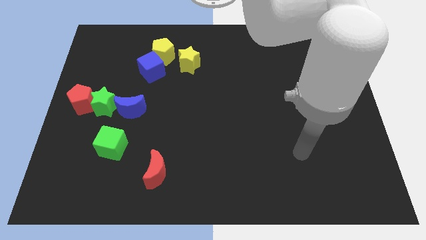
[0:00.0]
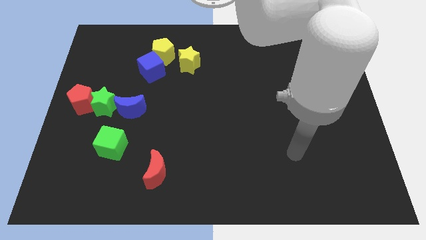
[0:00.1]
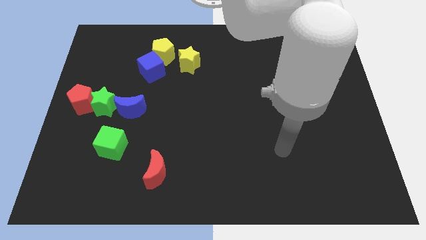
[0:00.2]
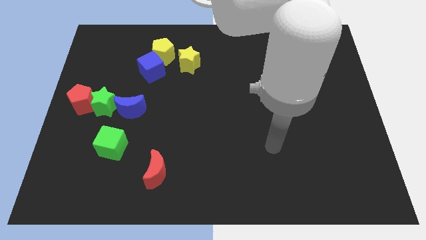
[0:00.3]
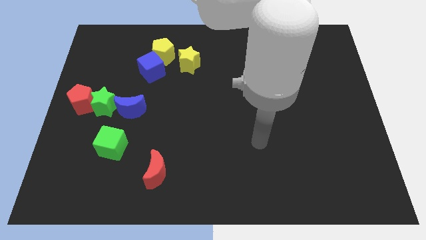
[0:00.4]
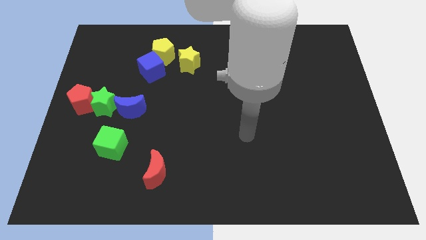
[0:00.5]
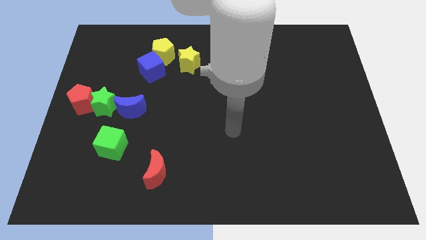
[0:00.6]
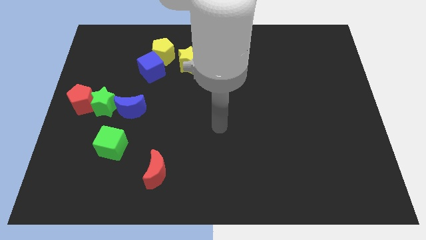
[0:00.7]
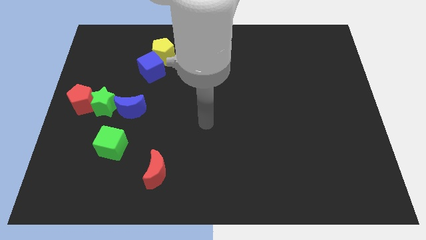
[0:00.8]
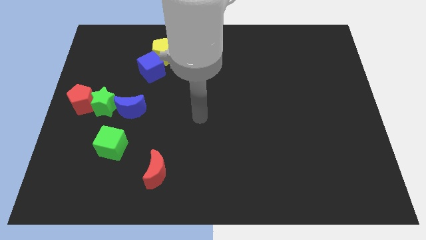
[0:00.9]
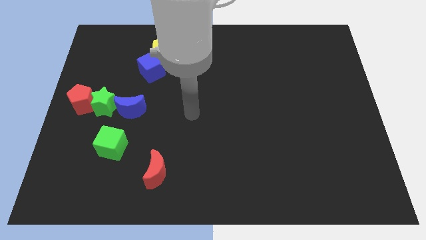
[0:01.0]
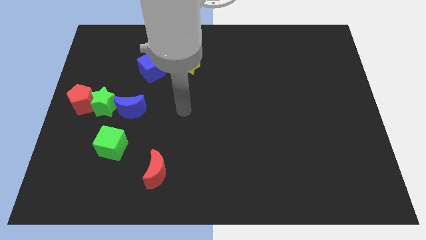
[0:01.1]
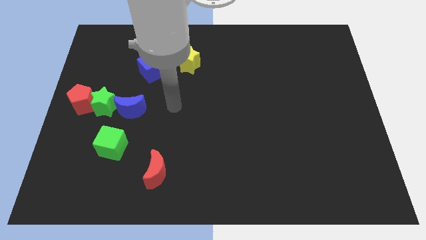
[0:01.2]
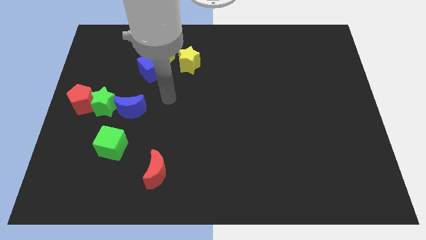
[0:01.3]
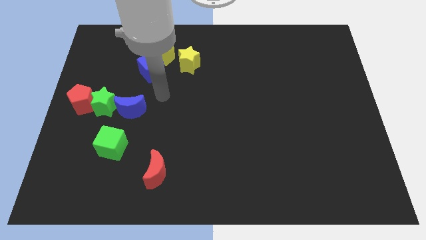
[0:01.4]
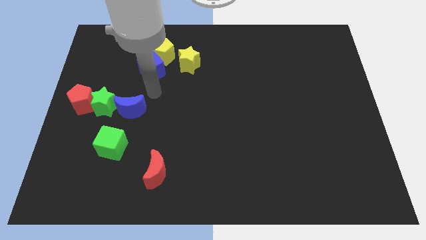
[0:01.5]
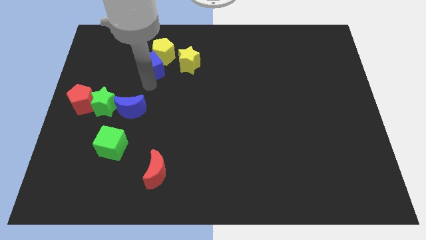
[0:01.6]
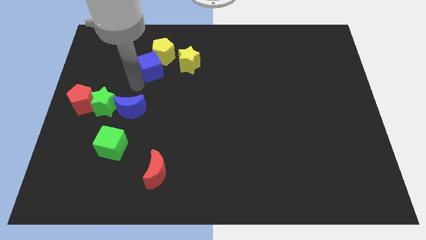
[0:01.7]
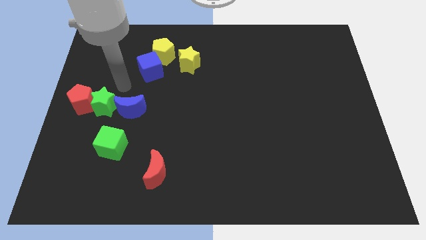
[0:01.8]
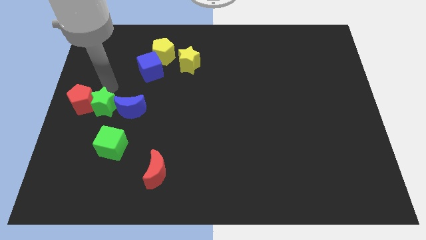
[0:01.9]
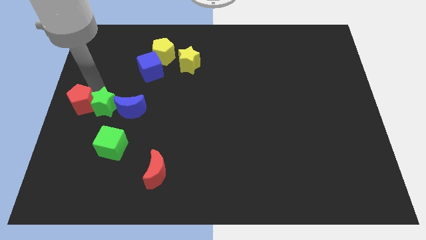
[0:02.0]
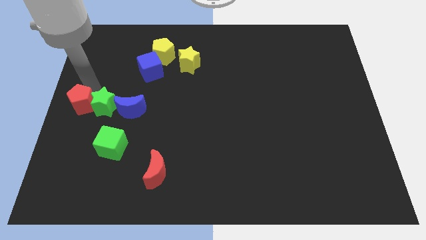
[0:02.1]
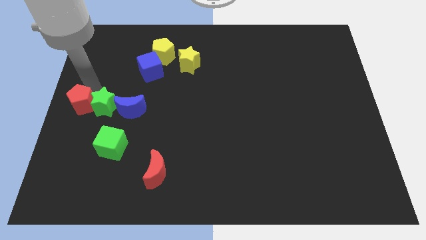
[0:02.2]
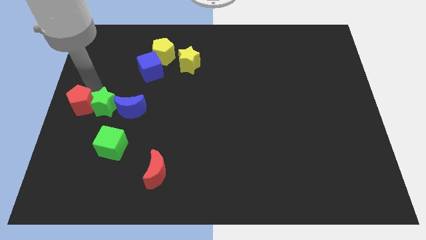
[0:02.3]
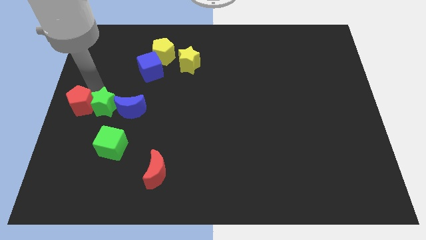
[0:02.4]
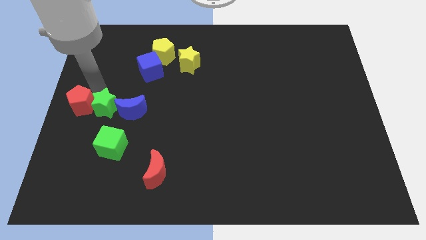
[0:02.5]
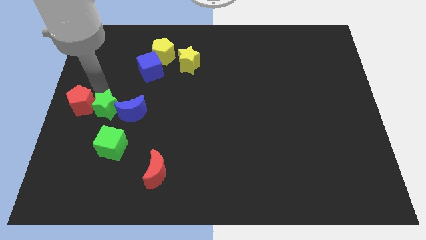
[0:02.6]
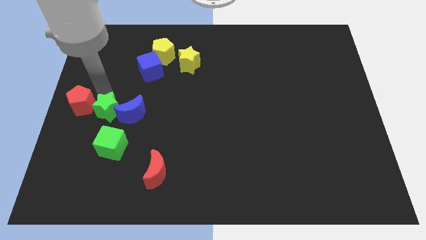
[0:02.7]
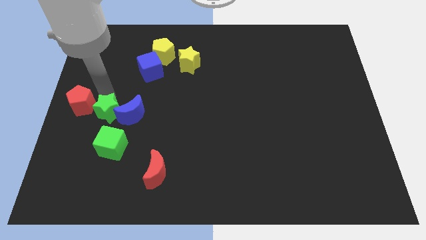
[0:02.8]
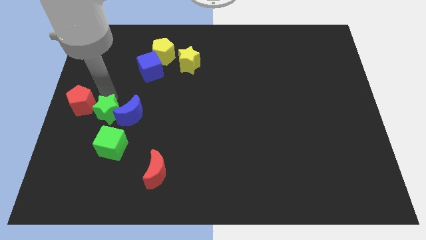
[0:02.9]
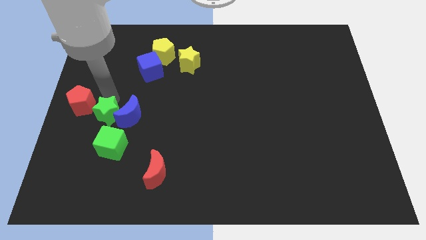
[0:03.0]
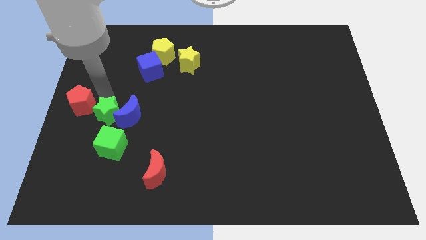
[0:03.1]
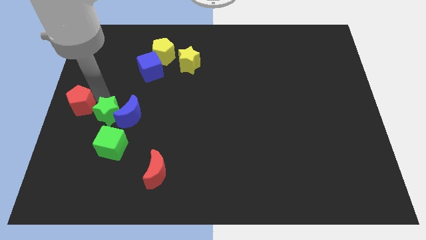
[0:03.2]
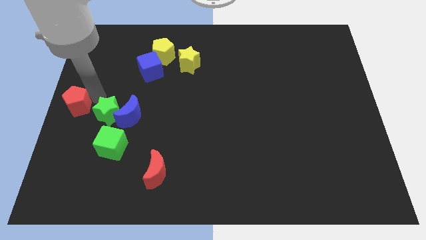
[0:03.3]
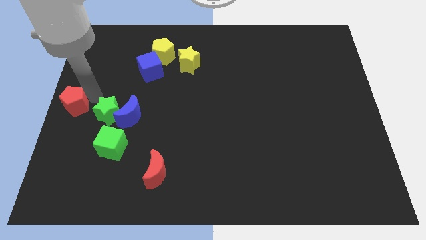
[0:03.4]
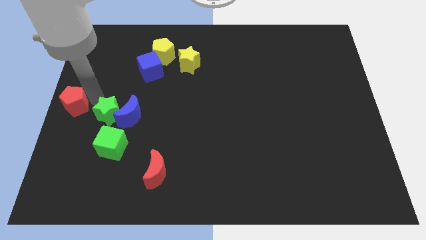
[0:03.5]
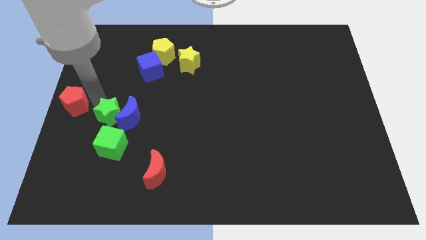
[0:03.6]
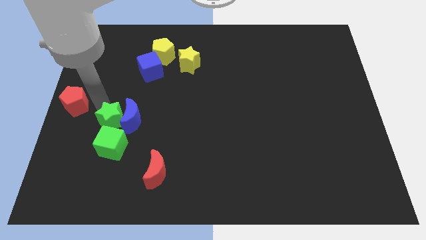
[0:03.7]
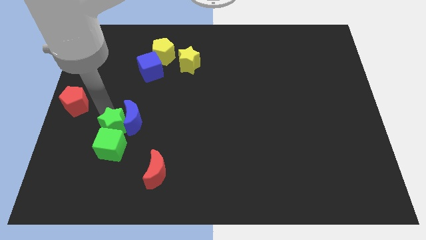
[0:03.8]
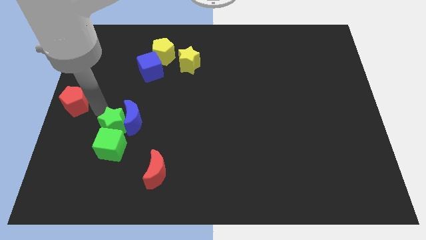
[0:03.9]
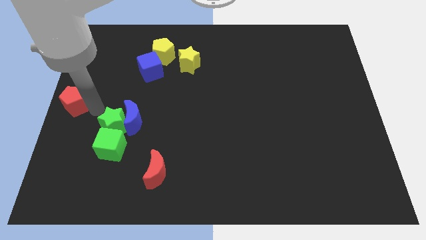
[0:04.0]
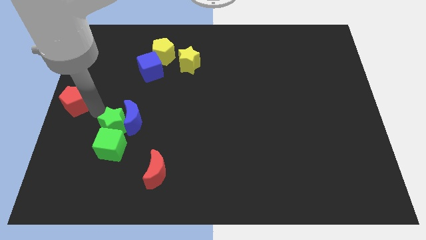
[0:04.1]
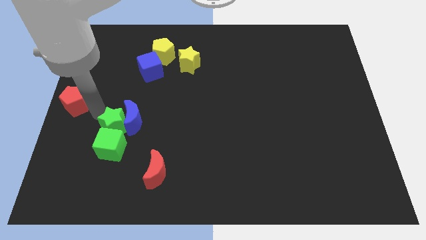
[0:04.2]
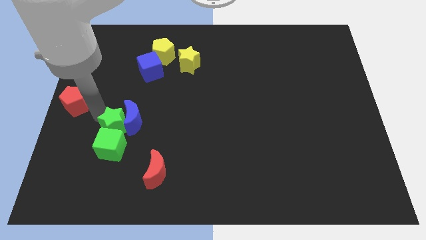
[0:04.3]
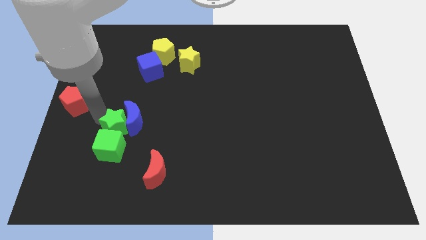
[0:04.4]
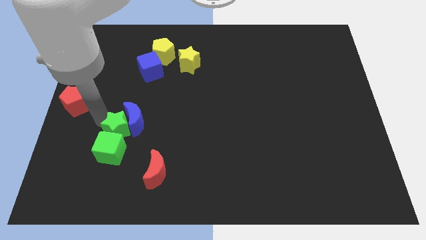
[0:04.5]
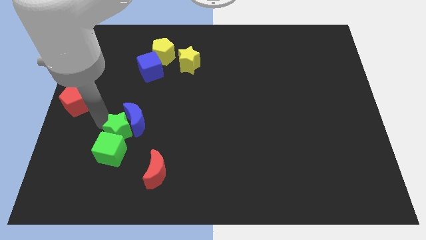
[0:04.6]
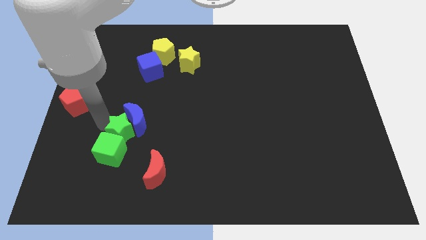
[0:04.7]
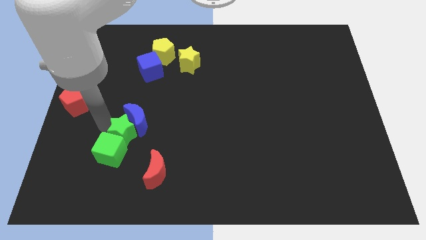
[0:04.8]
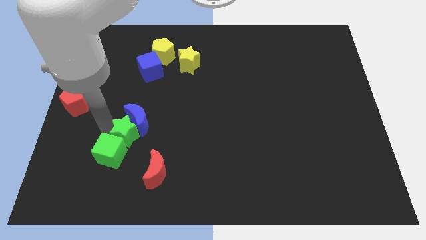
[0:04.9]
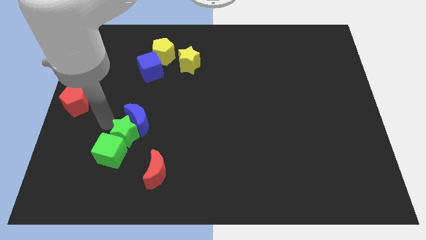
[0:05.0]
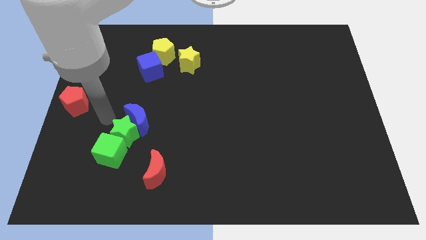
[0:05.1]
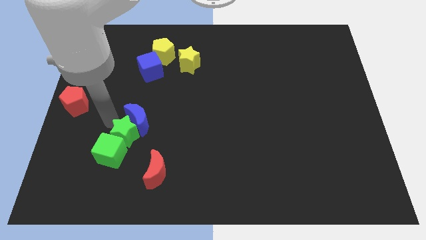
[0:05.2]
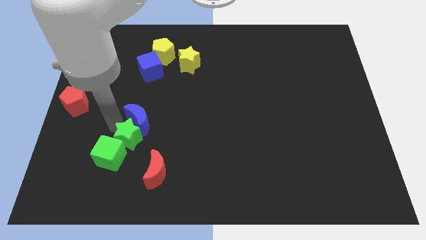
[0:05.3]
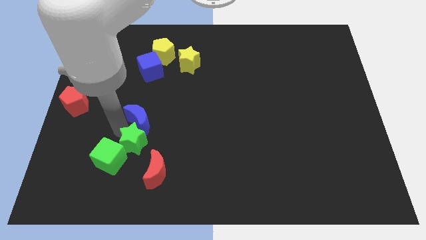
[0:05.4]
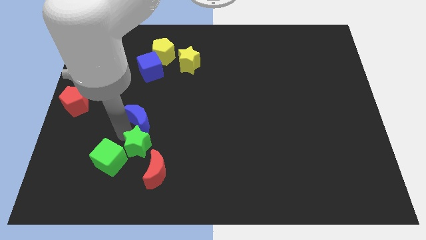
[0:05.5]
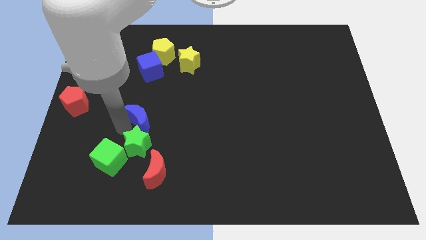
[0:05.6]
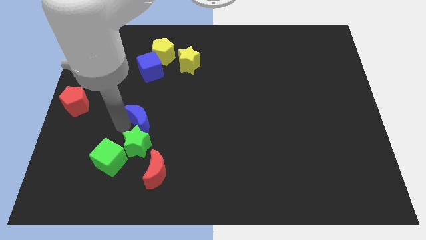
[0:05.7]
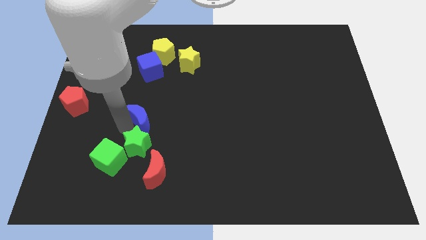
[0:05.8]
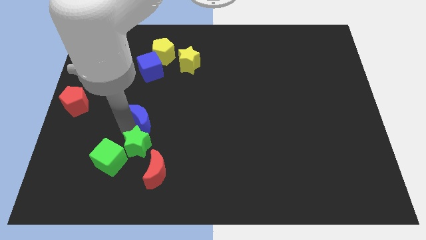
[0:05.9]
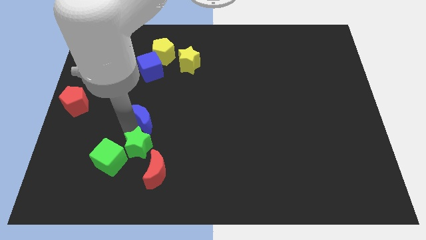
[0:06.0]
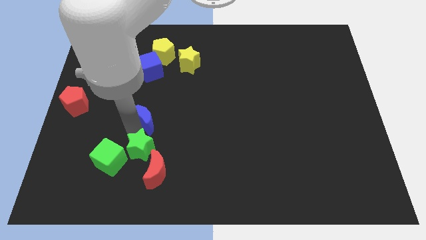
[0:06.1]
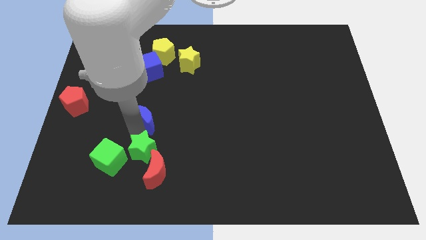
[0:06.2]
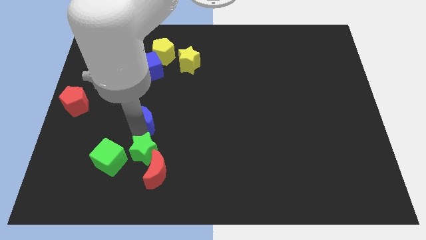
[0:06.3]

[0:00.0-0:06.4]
move the green star towards the red moon

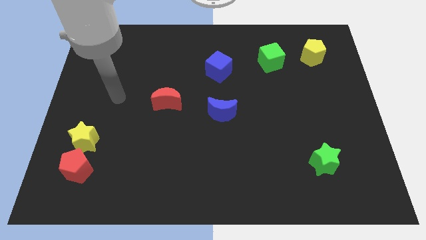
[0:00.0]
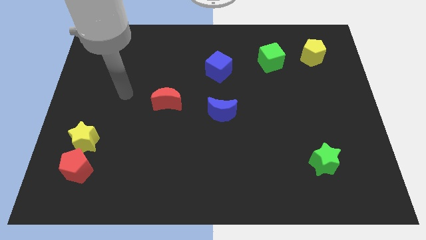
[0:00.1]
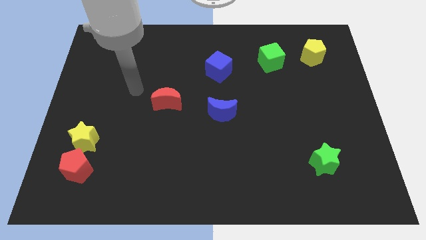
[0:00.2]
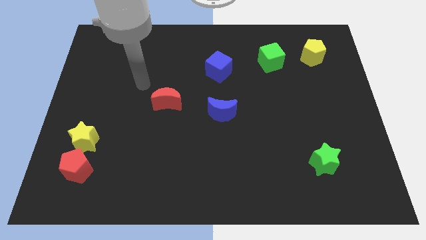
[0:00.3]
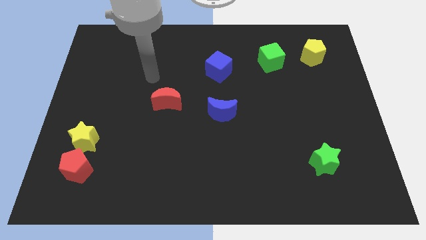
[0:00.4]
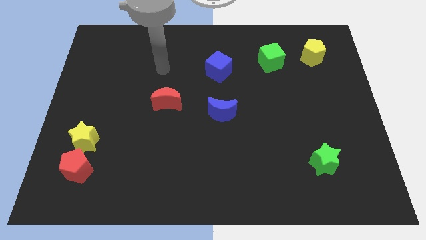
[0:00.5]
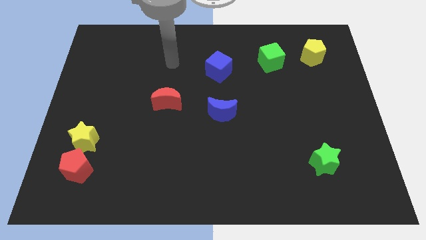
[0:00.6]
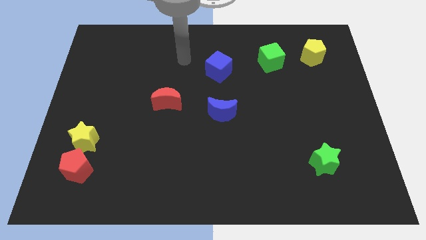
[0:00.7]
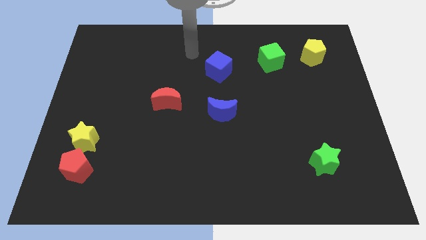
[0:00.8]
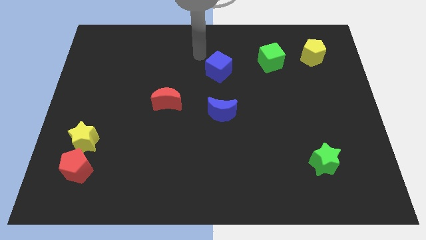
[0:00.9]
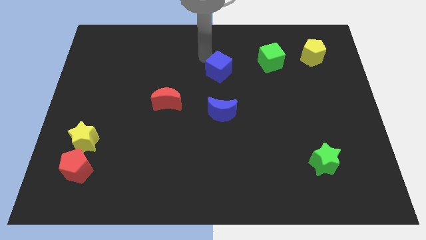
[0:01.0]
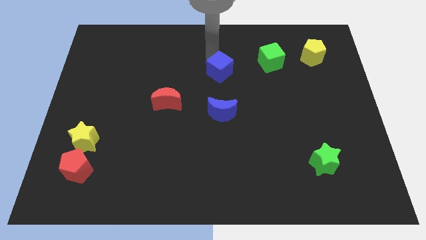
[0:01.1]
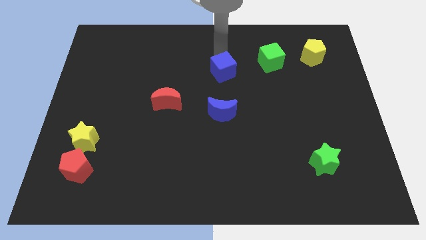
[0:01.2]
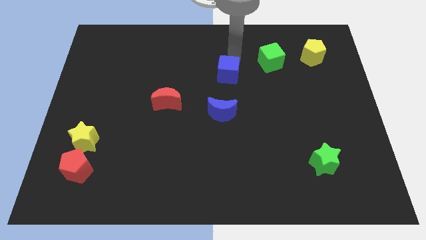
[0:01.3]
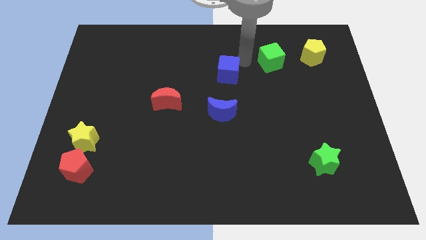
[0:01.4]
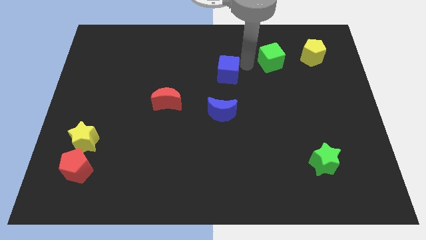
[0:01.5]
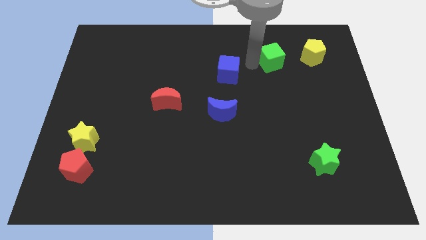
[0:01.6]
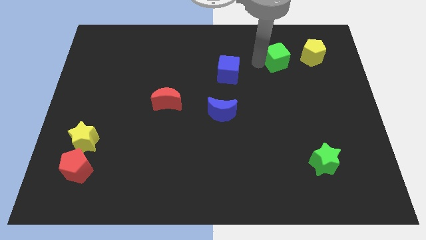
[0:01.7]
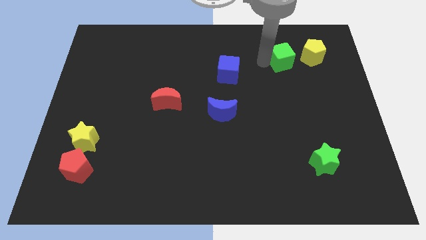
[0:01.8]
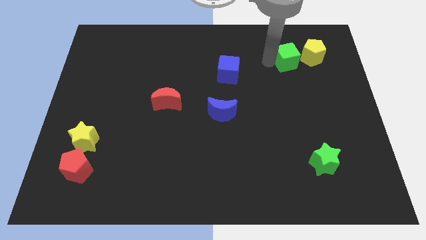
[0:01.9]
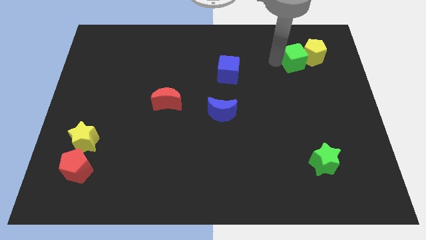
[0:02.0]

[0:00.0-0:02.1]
push the green cube towards the yellow pentagon
